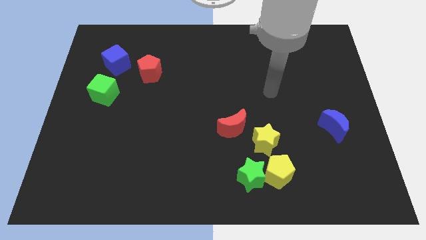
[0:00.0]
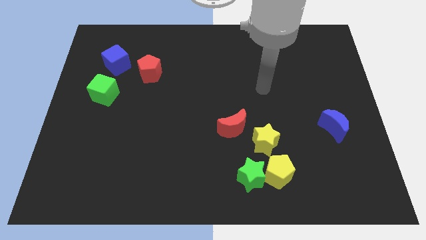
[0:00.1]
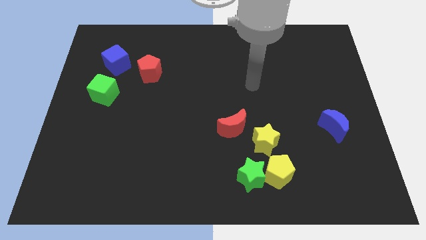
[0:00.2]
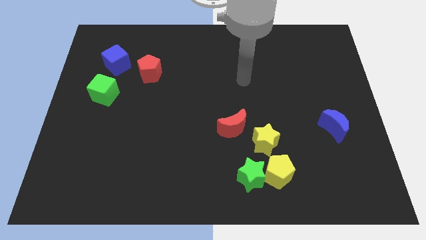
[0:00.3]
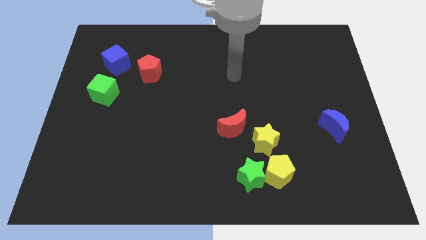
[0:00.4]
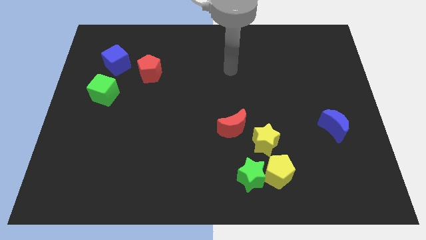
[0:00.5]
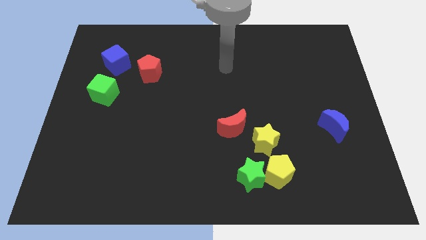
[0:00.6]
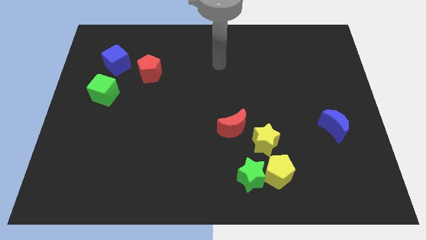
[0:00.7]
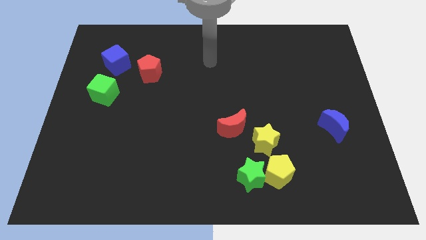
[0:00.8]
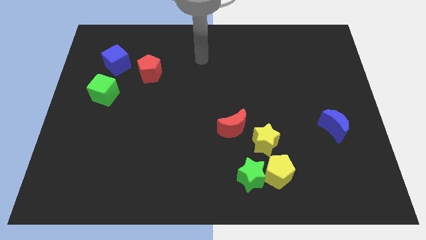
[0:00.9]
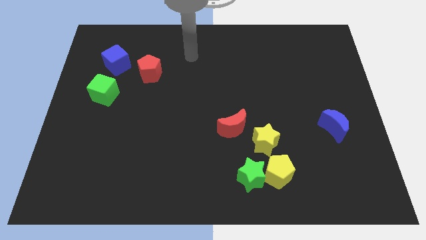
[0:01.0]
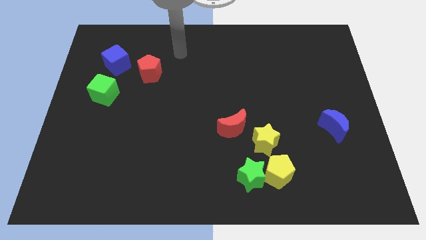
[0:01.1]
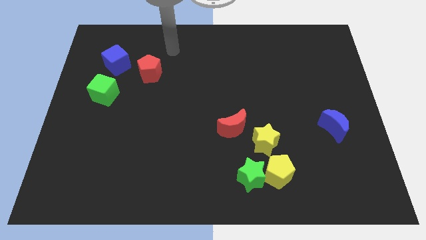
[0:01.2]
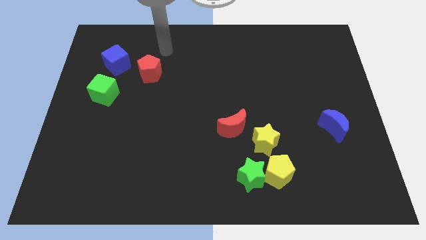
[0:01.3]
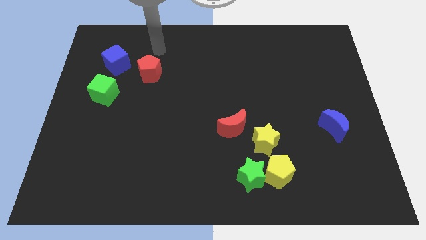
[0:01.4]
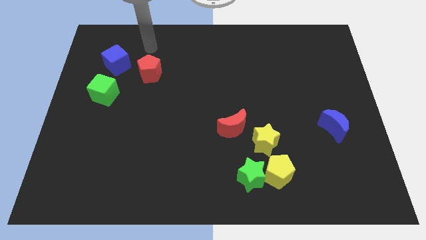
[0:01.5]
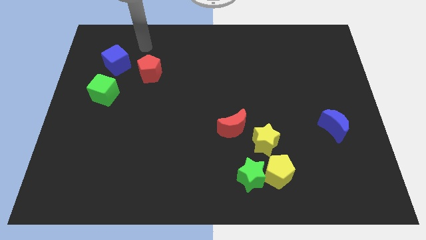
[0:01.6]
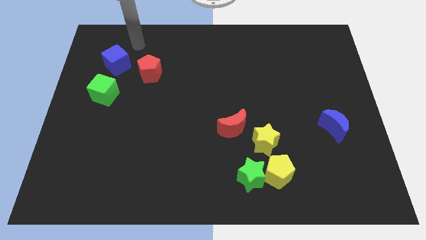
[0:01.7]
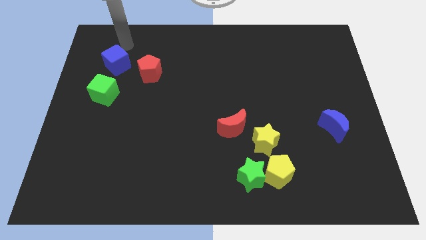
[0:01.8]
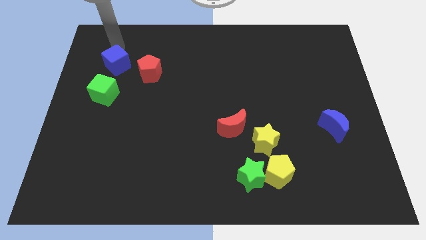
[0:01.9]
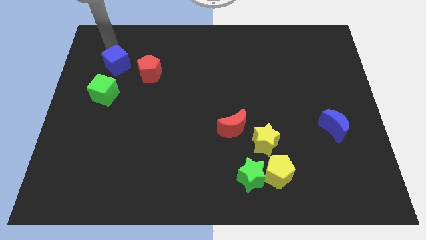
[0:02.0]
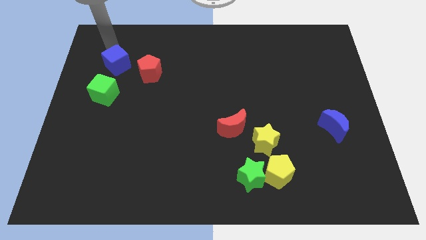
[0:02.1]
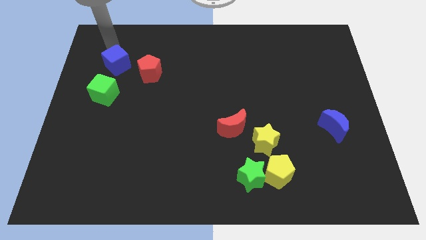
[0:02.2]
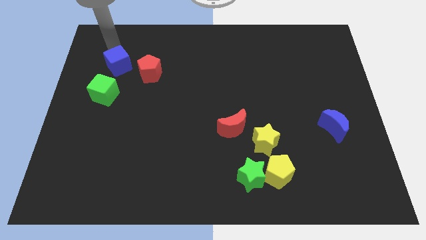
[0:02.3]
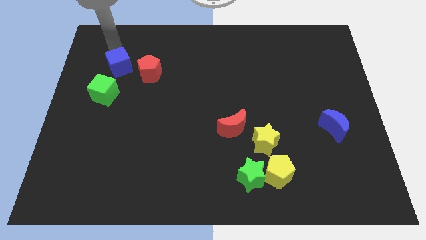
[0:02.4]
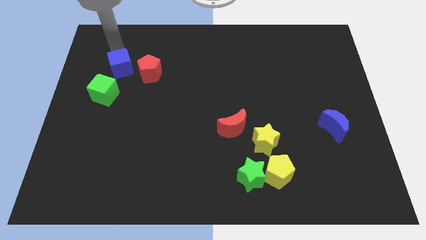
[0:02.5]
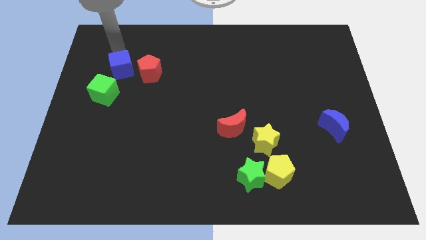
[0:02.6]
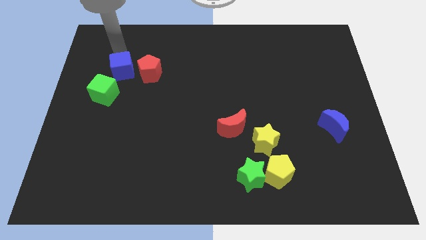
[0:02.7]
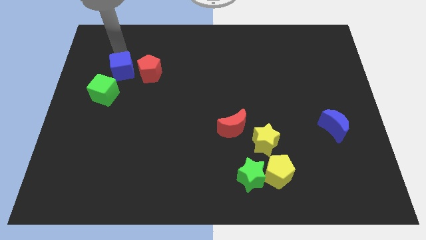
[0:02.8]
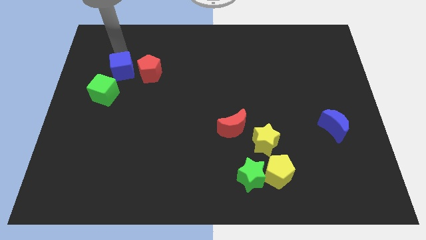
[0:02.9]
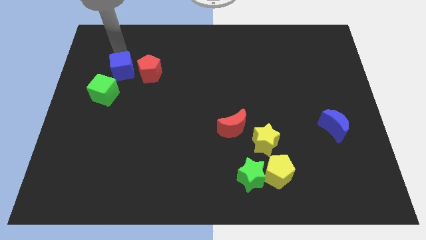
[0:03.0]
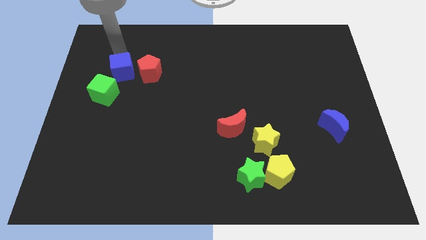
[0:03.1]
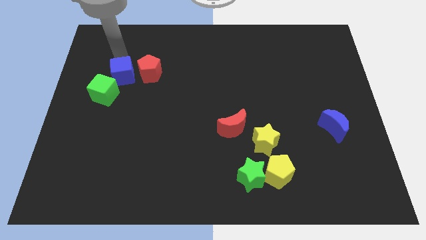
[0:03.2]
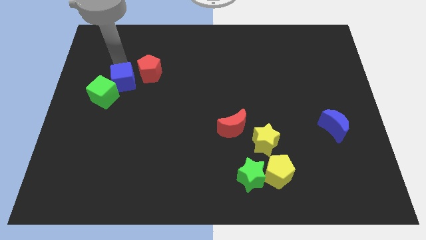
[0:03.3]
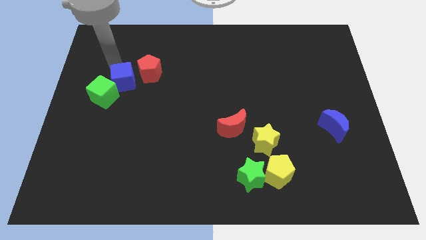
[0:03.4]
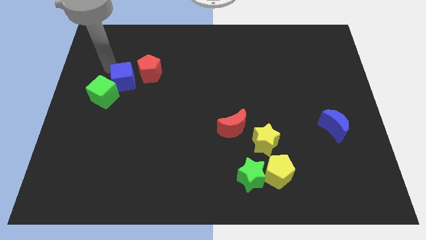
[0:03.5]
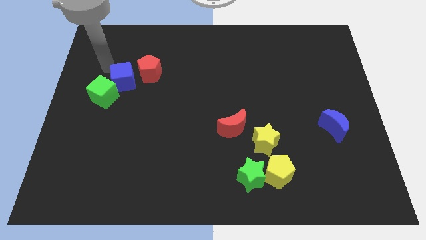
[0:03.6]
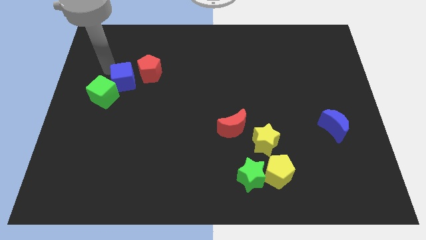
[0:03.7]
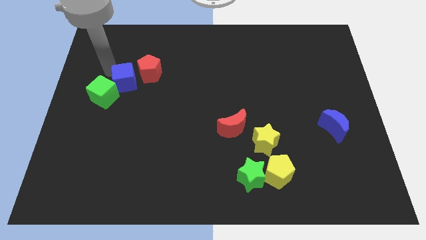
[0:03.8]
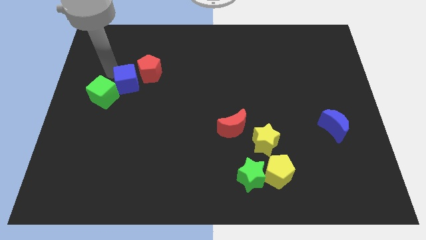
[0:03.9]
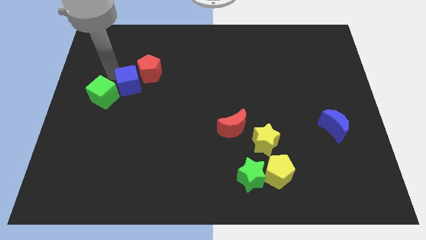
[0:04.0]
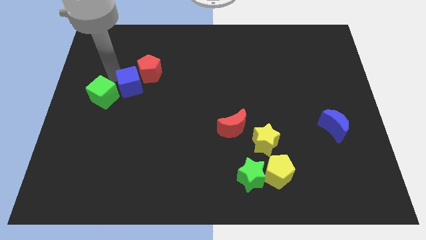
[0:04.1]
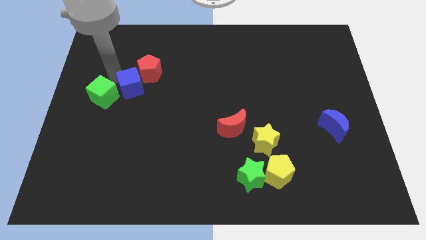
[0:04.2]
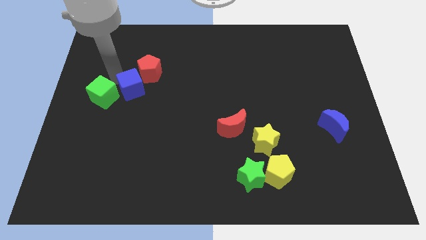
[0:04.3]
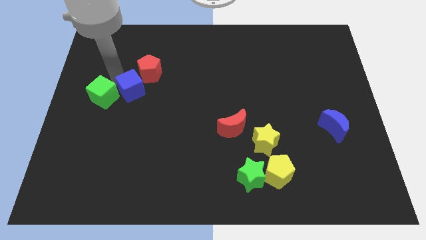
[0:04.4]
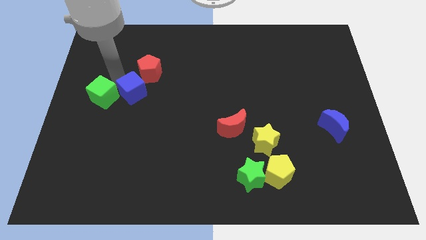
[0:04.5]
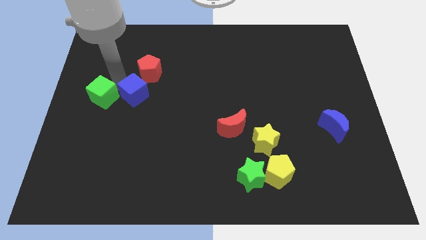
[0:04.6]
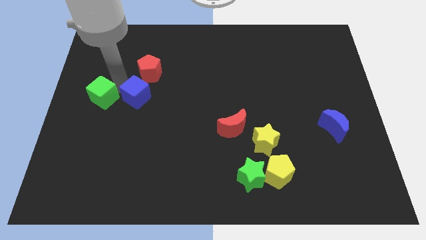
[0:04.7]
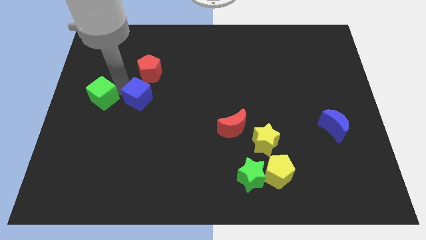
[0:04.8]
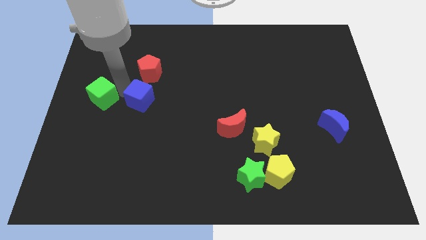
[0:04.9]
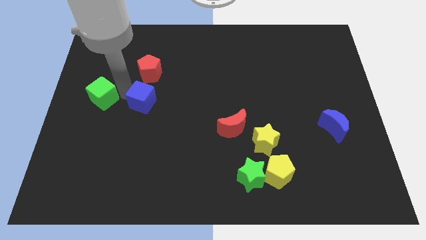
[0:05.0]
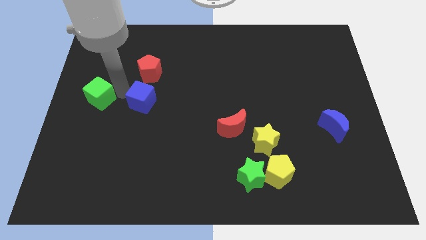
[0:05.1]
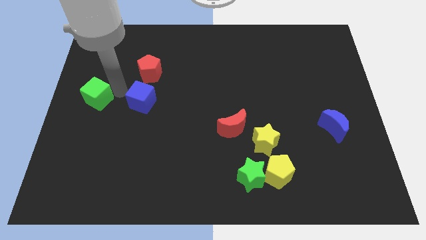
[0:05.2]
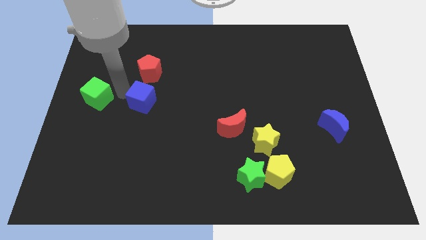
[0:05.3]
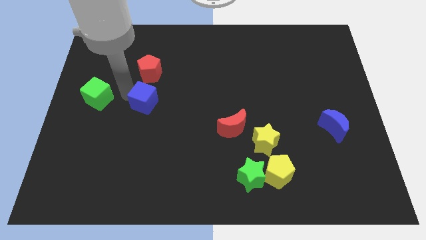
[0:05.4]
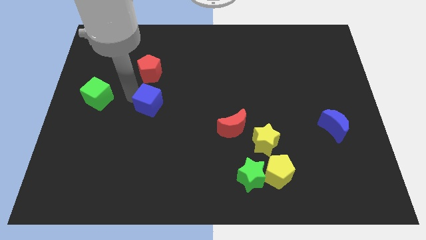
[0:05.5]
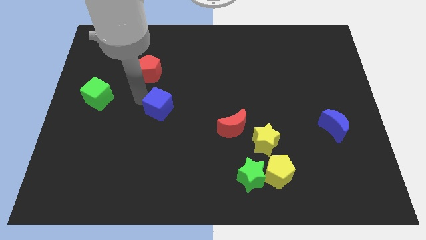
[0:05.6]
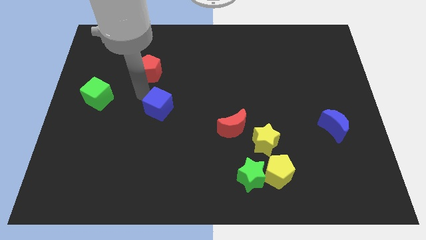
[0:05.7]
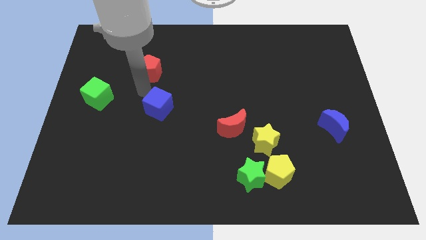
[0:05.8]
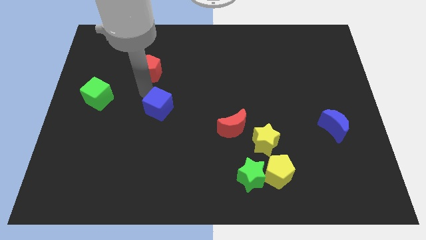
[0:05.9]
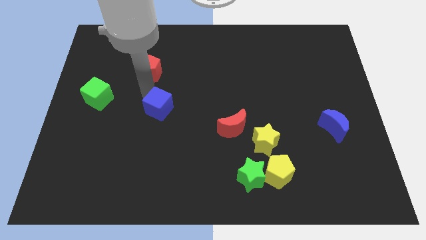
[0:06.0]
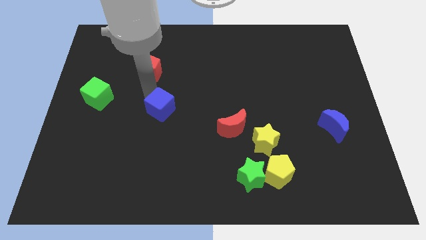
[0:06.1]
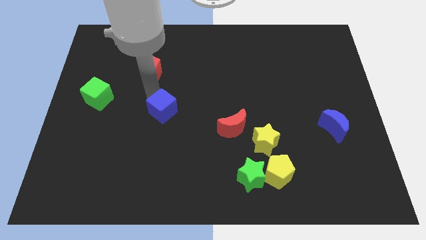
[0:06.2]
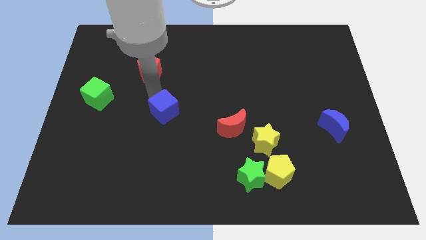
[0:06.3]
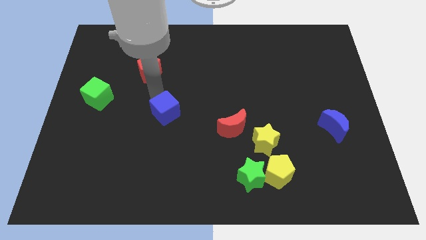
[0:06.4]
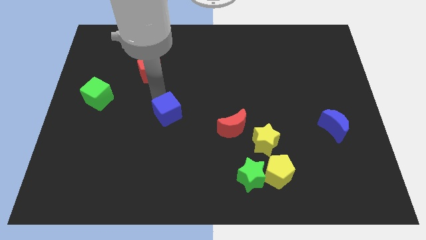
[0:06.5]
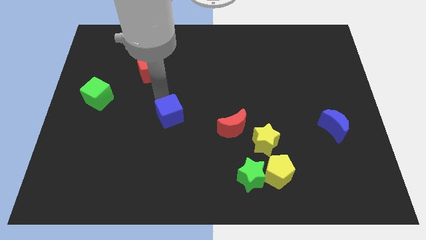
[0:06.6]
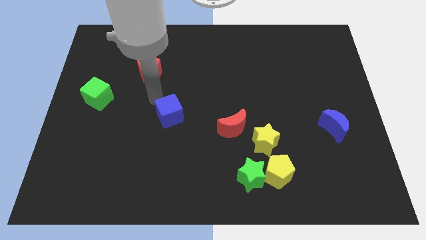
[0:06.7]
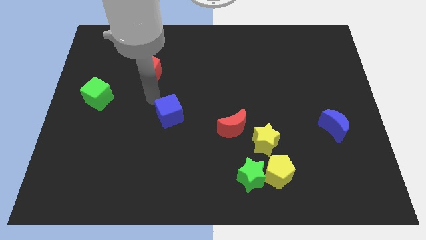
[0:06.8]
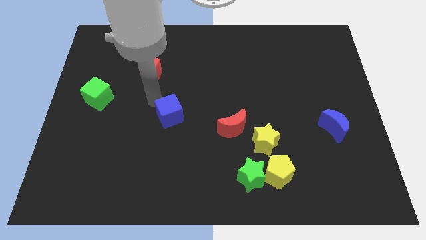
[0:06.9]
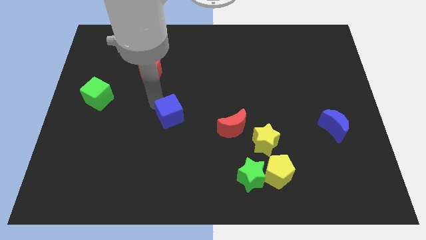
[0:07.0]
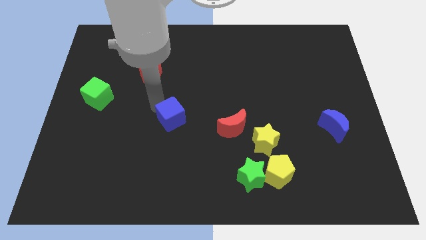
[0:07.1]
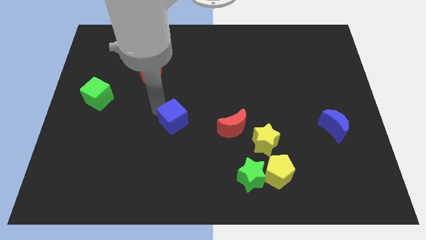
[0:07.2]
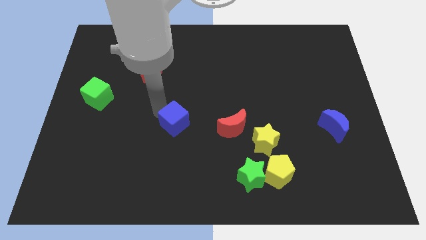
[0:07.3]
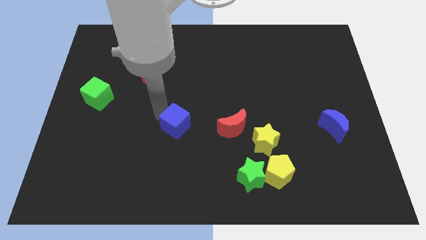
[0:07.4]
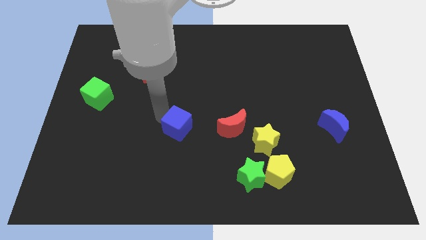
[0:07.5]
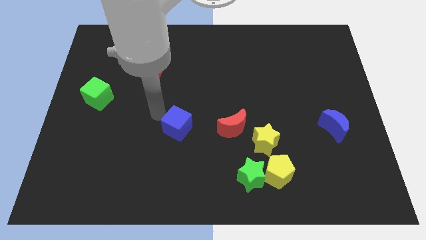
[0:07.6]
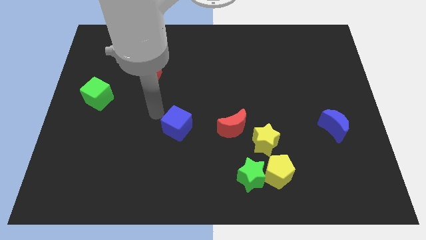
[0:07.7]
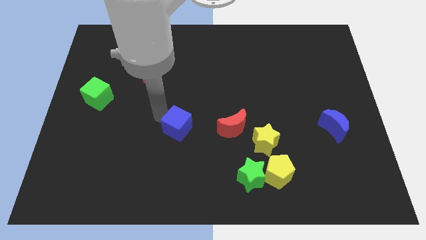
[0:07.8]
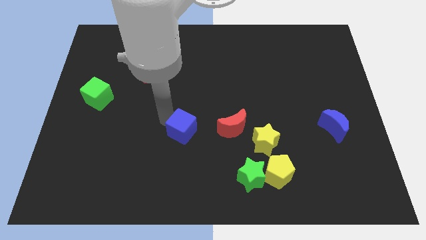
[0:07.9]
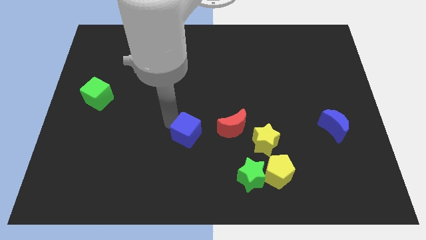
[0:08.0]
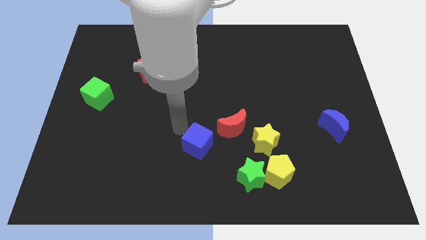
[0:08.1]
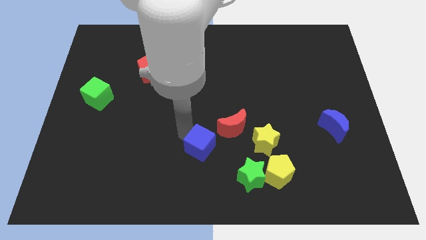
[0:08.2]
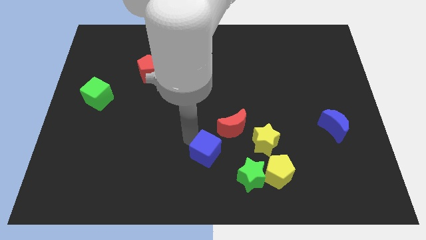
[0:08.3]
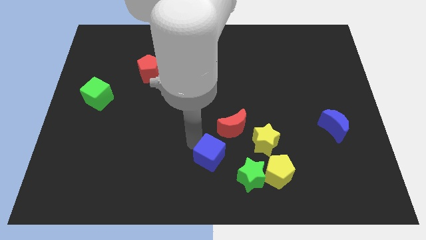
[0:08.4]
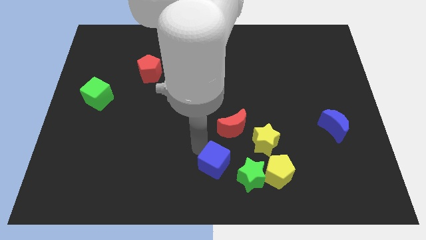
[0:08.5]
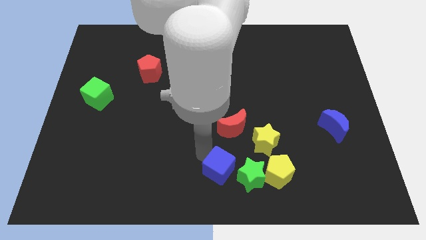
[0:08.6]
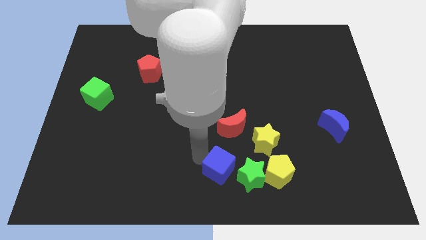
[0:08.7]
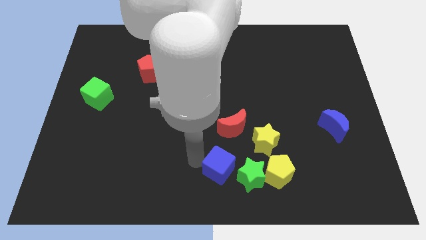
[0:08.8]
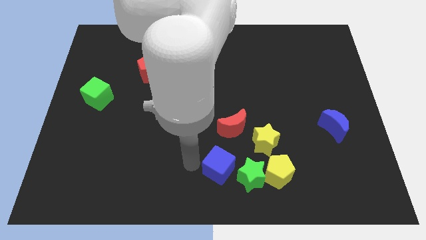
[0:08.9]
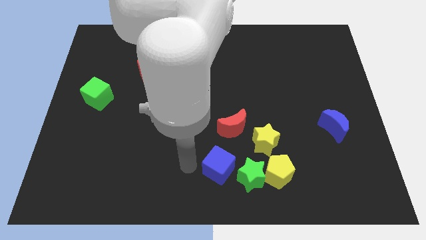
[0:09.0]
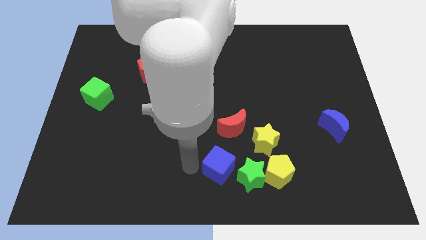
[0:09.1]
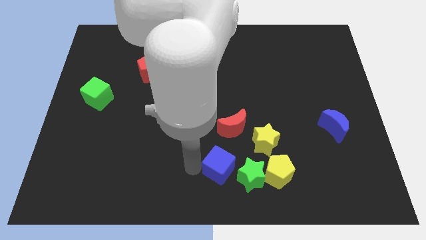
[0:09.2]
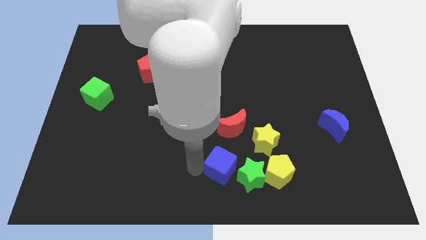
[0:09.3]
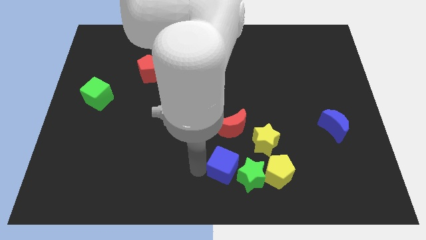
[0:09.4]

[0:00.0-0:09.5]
move the blue cube to the green star
